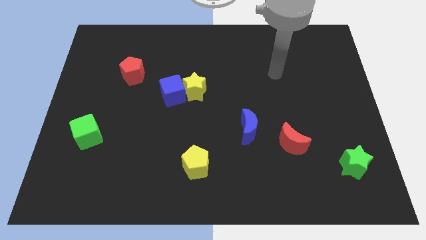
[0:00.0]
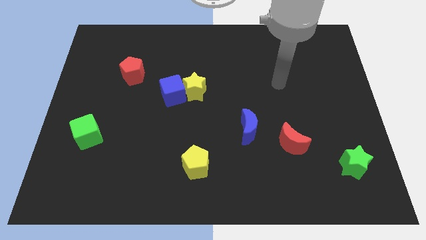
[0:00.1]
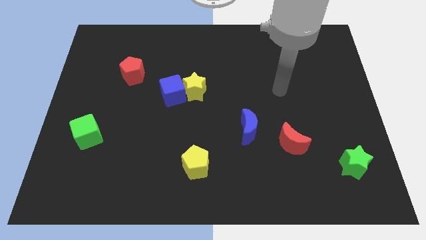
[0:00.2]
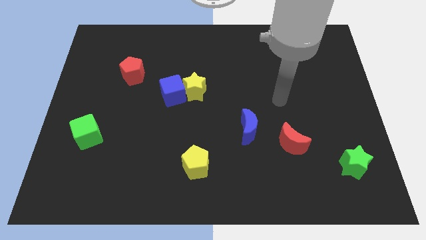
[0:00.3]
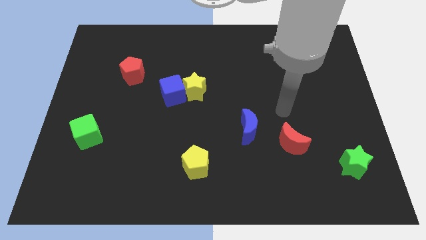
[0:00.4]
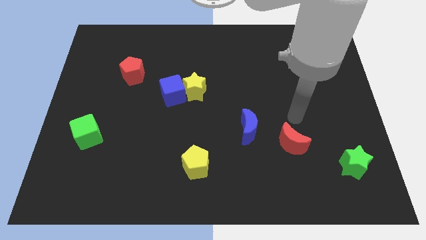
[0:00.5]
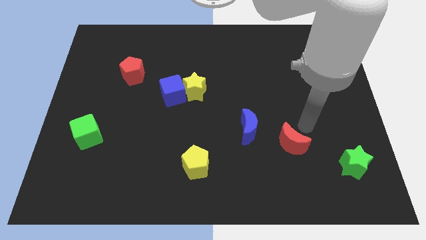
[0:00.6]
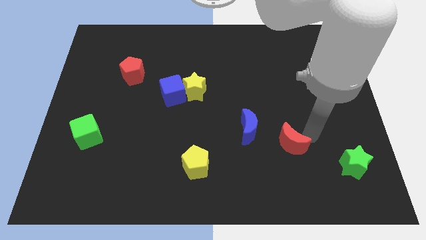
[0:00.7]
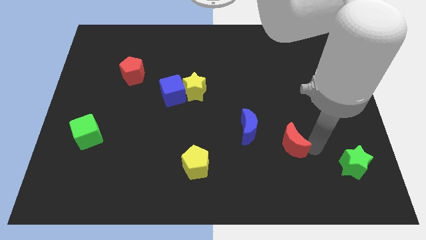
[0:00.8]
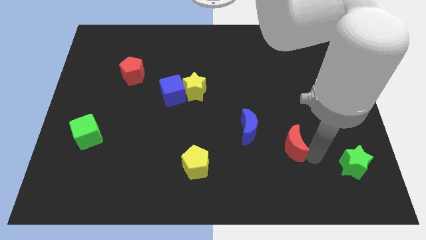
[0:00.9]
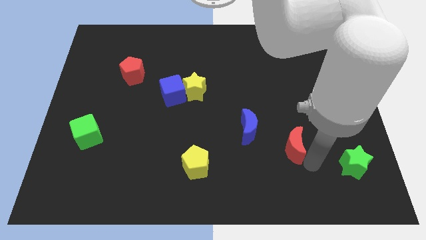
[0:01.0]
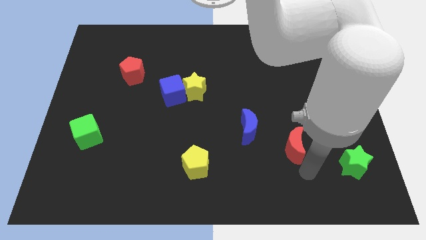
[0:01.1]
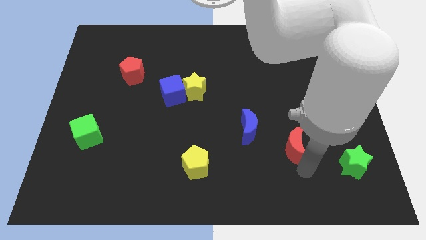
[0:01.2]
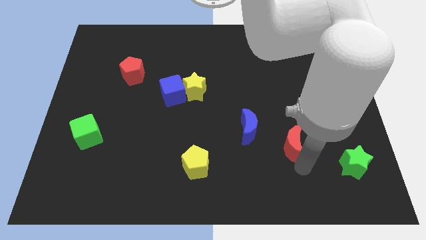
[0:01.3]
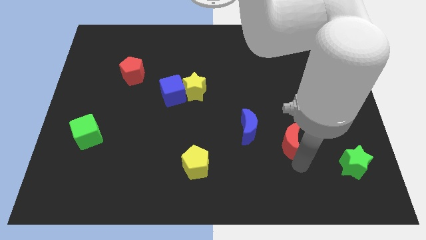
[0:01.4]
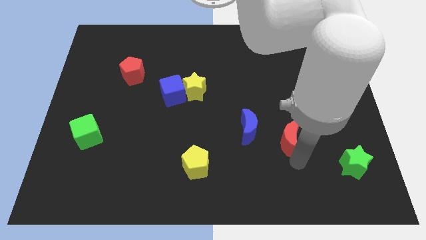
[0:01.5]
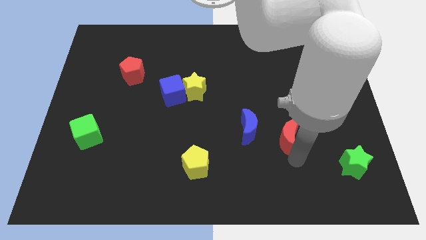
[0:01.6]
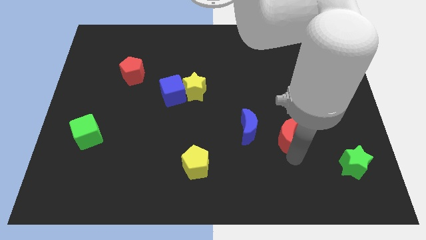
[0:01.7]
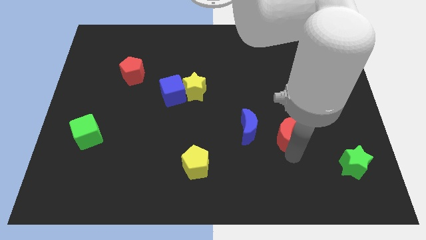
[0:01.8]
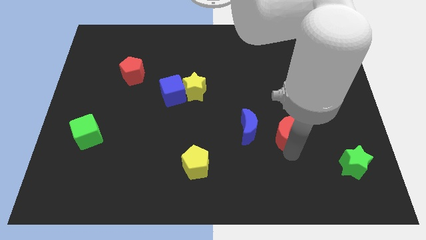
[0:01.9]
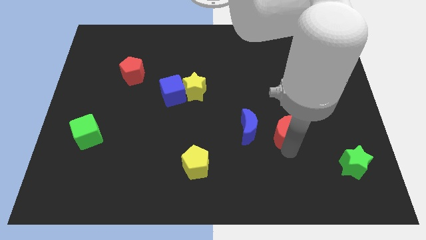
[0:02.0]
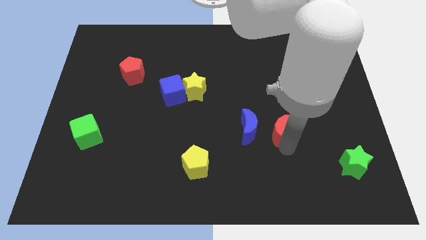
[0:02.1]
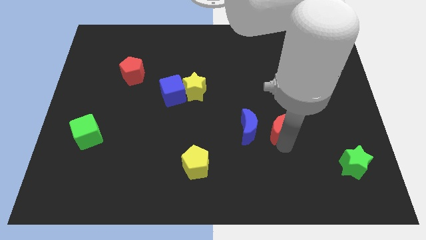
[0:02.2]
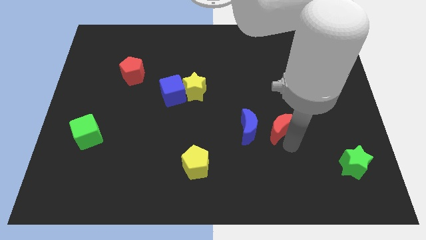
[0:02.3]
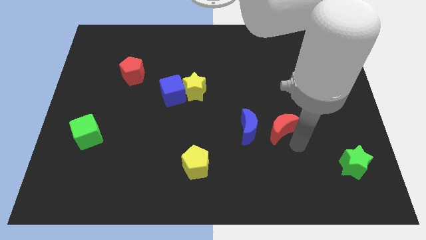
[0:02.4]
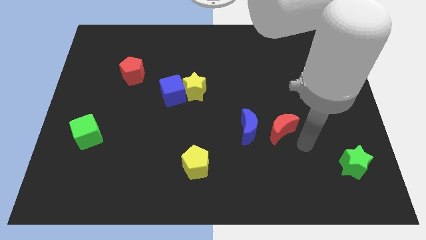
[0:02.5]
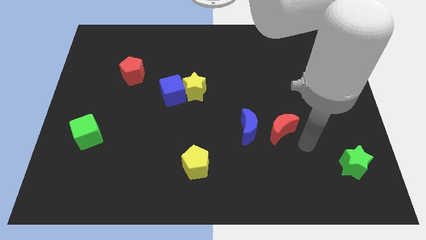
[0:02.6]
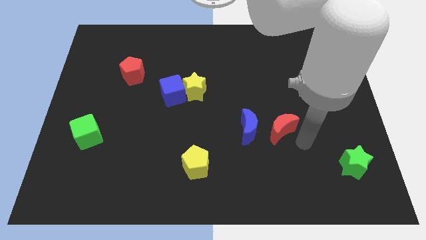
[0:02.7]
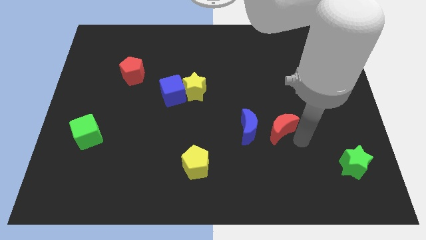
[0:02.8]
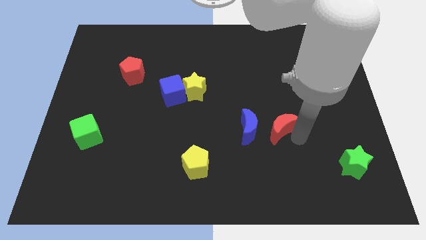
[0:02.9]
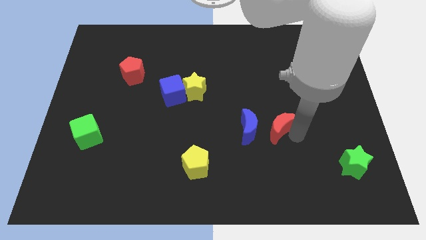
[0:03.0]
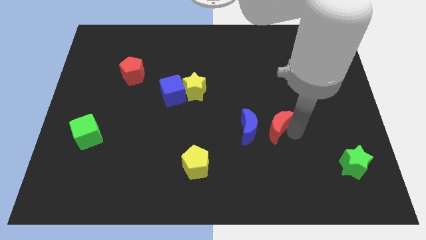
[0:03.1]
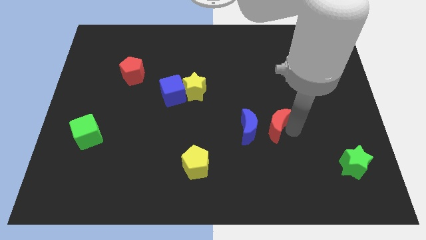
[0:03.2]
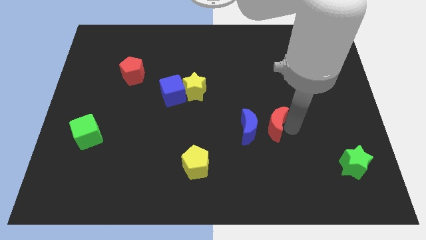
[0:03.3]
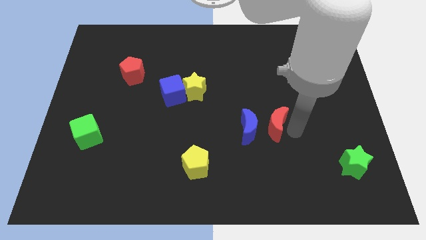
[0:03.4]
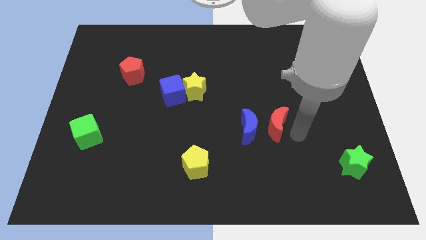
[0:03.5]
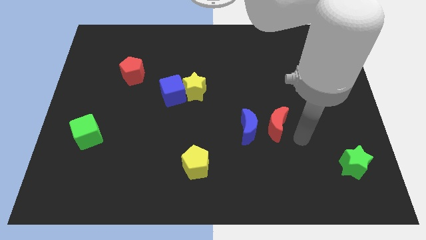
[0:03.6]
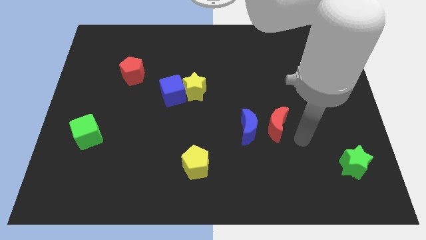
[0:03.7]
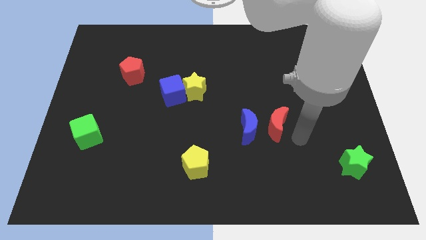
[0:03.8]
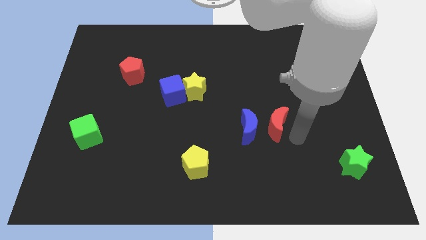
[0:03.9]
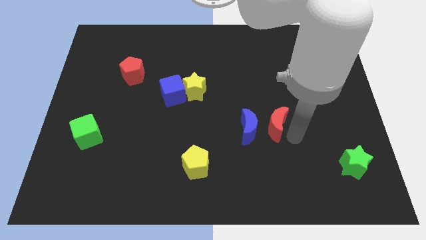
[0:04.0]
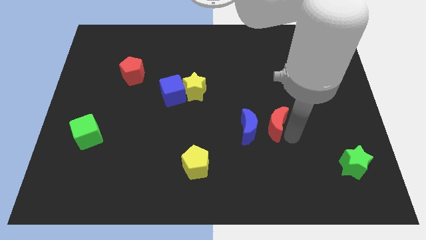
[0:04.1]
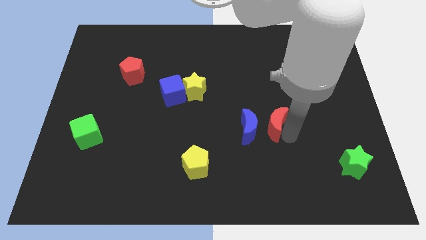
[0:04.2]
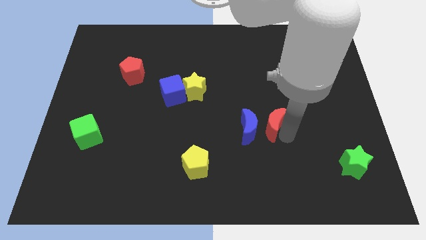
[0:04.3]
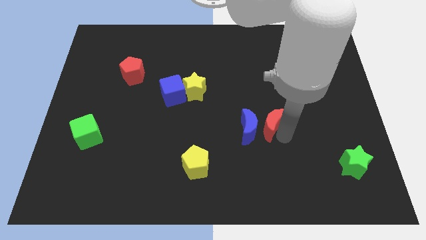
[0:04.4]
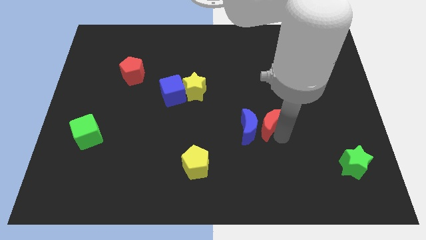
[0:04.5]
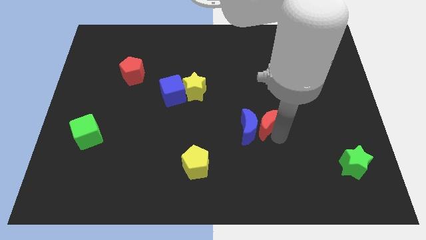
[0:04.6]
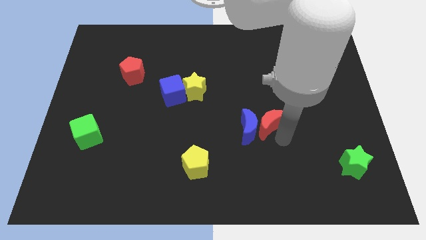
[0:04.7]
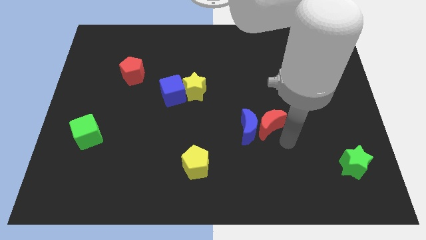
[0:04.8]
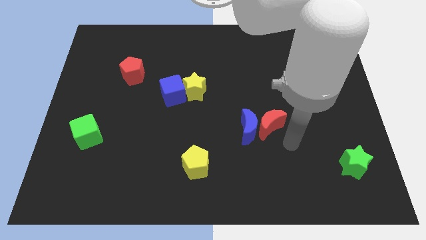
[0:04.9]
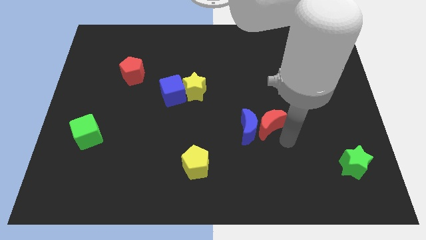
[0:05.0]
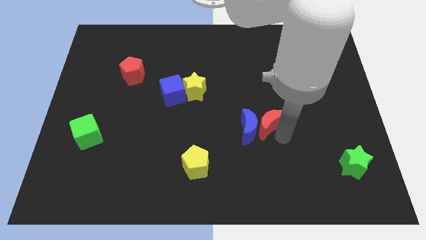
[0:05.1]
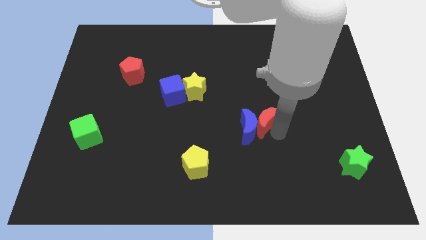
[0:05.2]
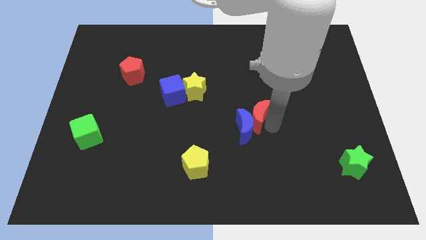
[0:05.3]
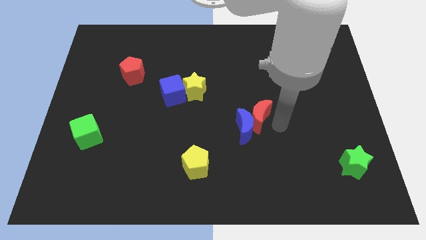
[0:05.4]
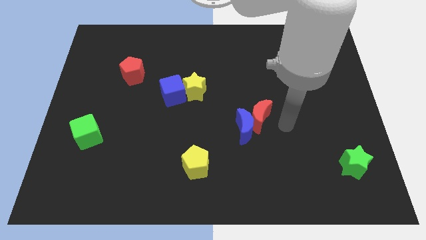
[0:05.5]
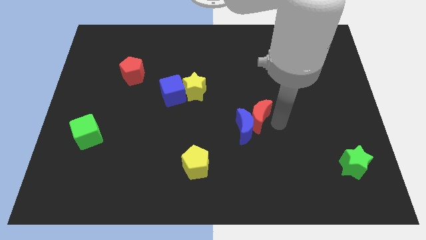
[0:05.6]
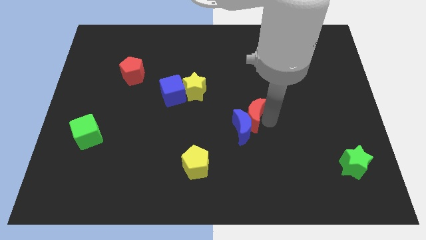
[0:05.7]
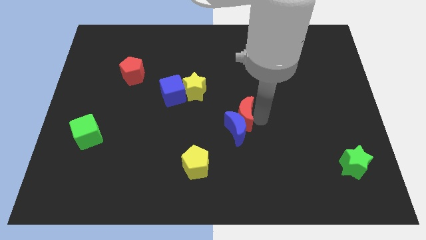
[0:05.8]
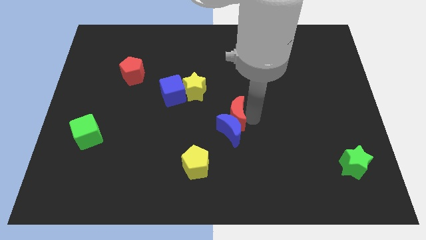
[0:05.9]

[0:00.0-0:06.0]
put the red moon to the bottom right side of the yellow star

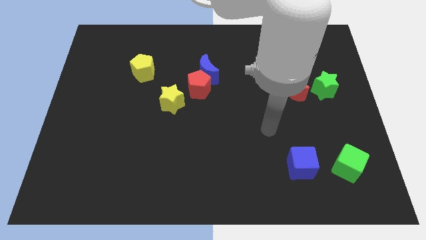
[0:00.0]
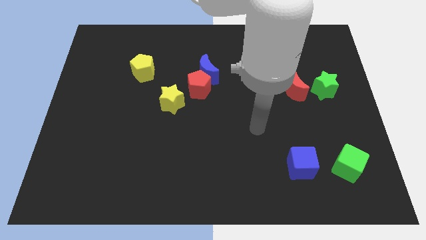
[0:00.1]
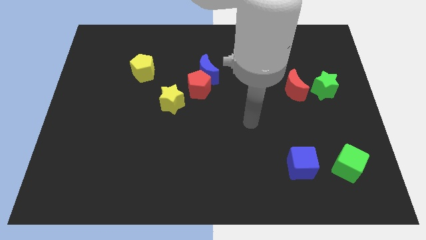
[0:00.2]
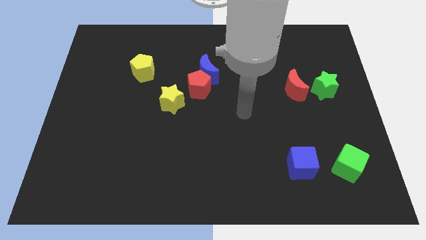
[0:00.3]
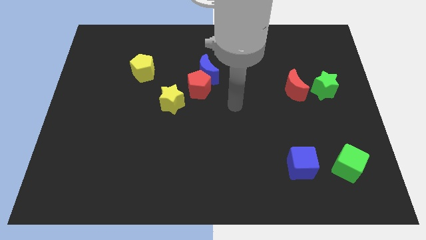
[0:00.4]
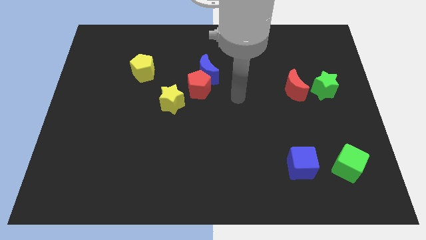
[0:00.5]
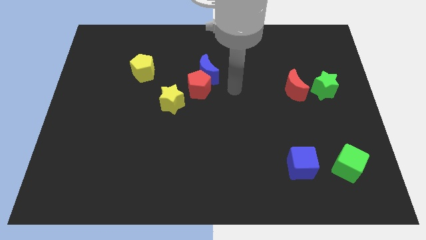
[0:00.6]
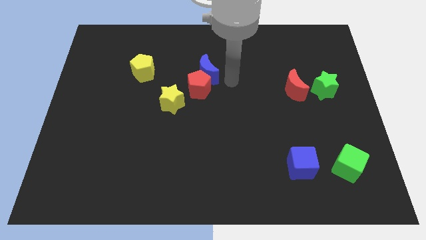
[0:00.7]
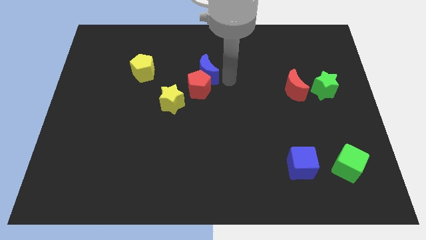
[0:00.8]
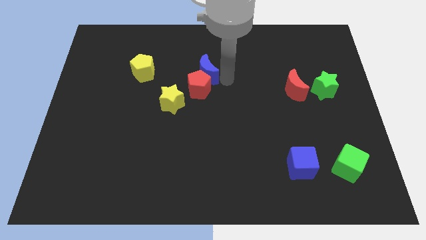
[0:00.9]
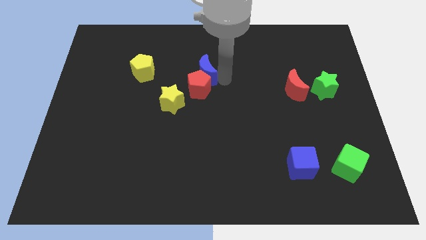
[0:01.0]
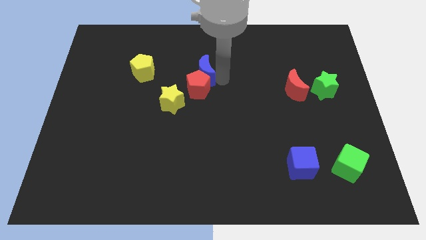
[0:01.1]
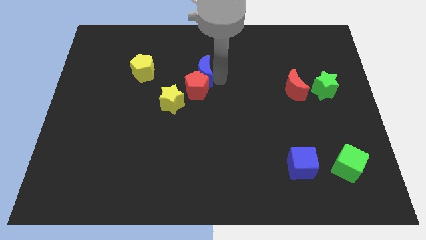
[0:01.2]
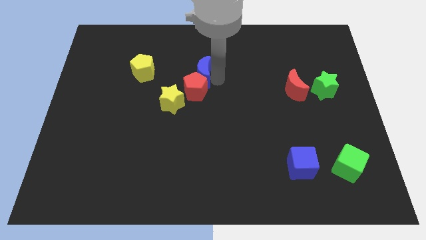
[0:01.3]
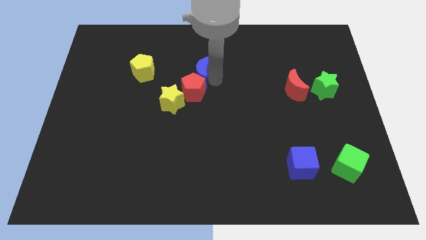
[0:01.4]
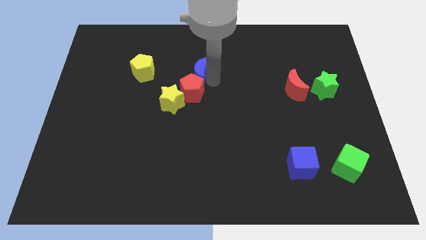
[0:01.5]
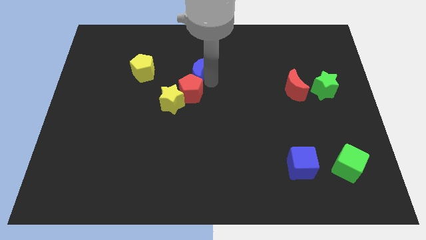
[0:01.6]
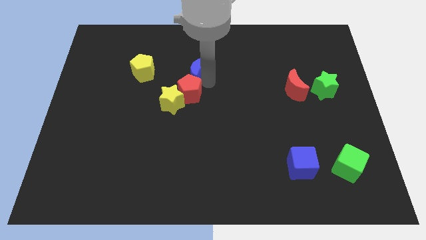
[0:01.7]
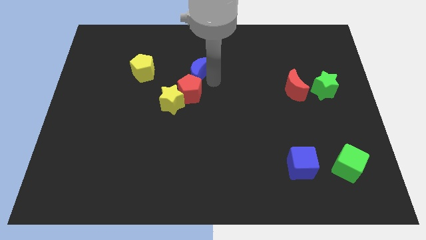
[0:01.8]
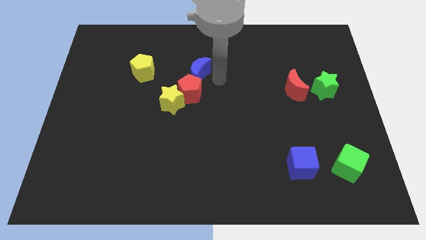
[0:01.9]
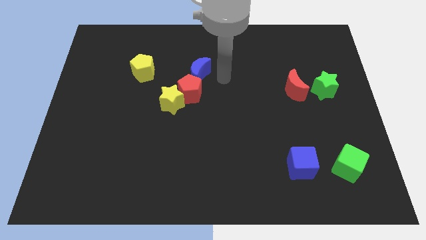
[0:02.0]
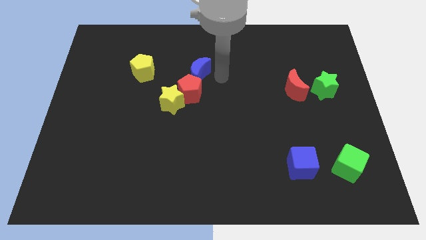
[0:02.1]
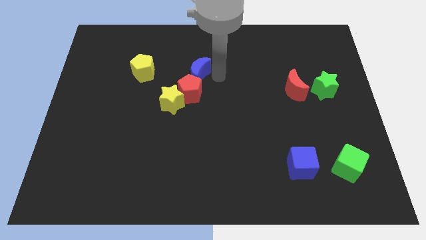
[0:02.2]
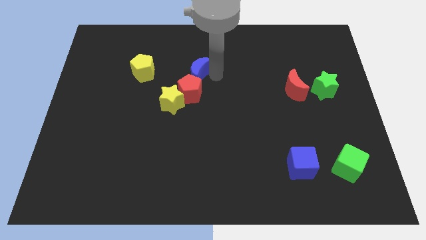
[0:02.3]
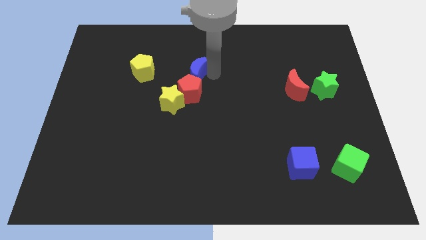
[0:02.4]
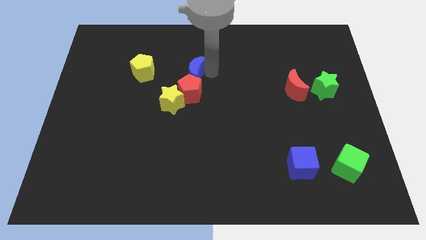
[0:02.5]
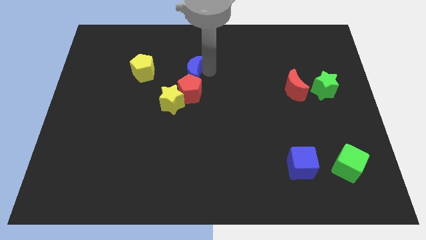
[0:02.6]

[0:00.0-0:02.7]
put the blue moon to the top of the yellow star
